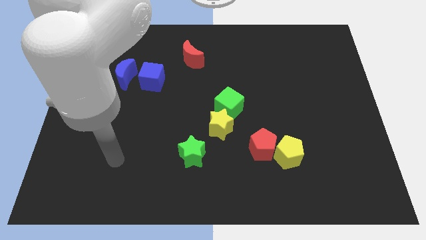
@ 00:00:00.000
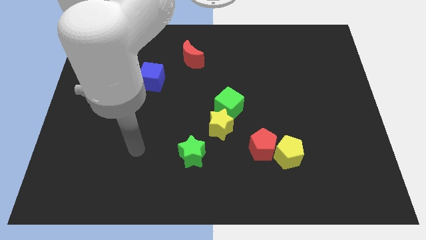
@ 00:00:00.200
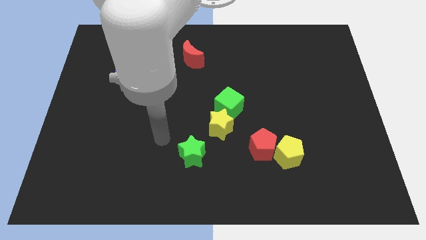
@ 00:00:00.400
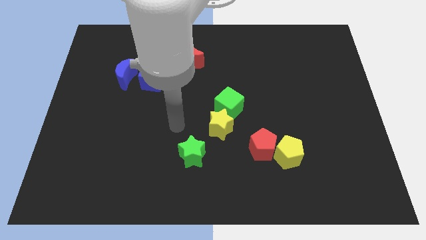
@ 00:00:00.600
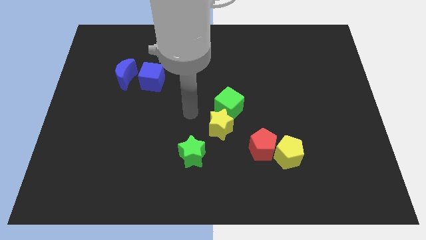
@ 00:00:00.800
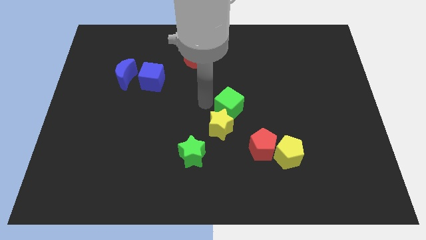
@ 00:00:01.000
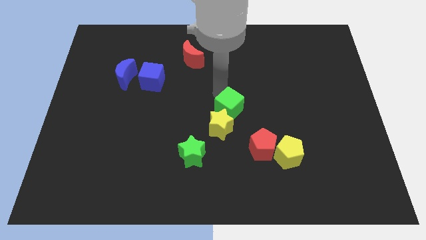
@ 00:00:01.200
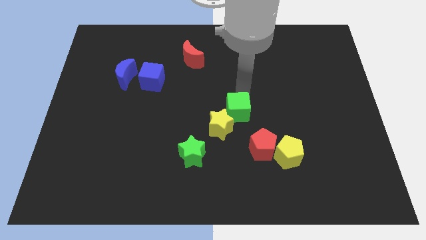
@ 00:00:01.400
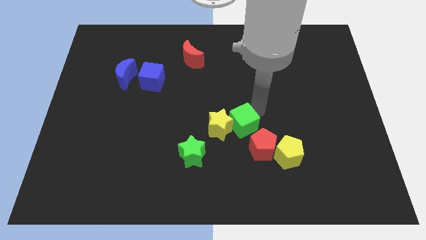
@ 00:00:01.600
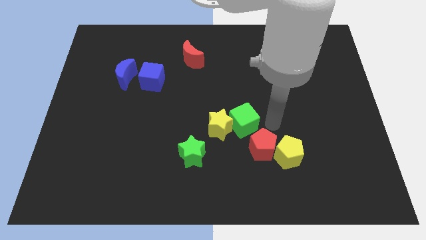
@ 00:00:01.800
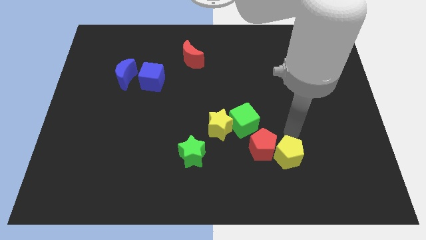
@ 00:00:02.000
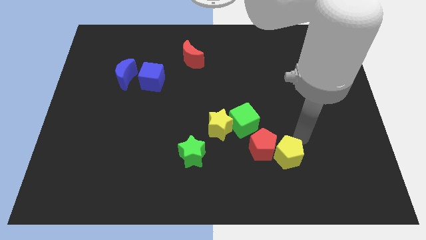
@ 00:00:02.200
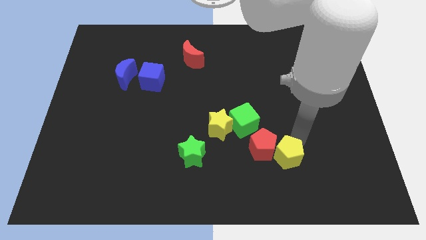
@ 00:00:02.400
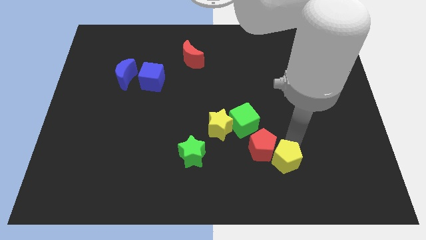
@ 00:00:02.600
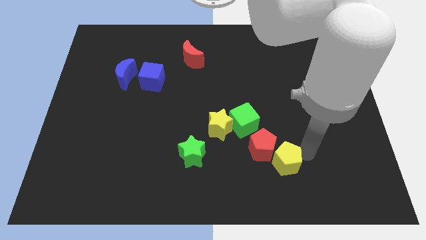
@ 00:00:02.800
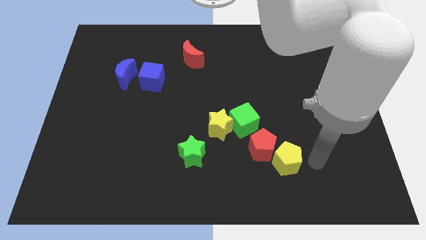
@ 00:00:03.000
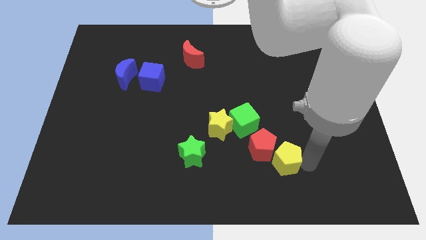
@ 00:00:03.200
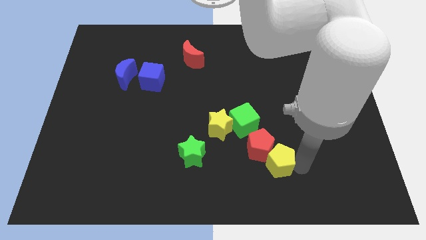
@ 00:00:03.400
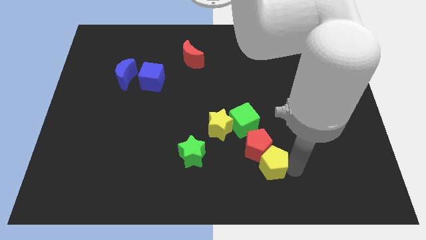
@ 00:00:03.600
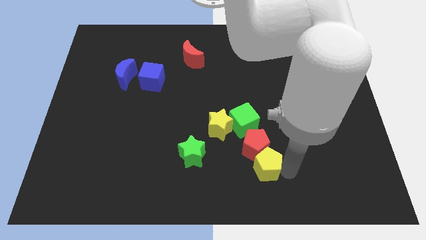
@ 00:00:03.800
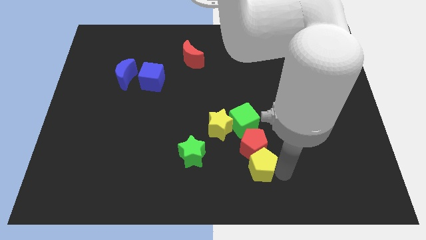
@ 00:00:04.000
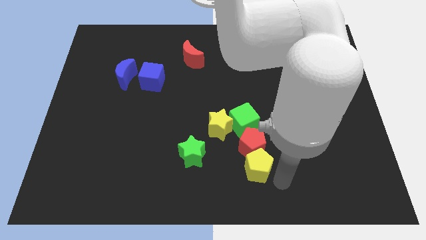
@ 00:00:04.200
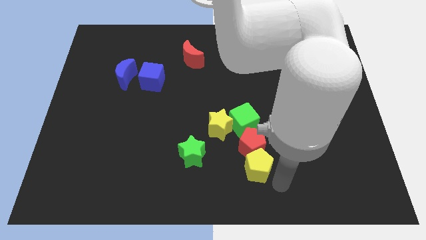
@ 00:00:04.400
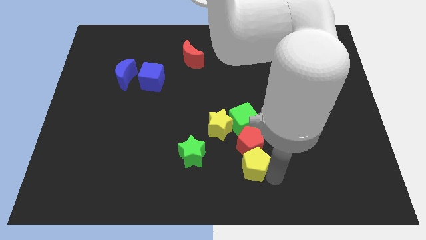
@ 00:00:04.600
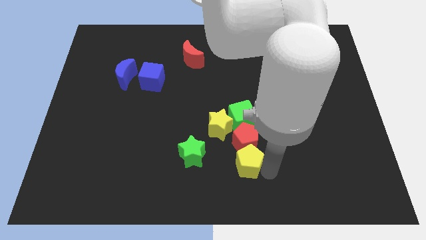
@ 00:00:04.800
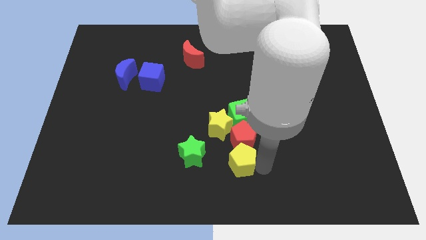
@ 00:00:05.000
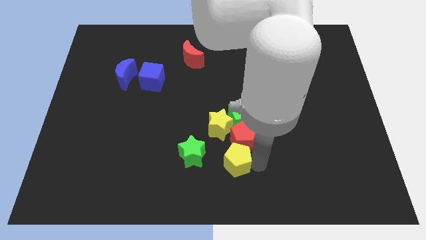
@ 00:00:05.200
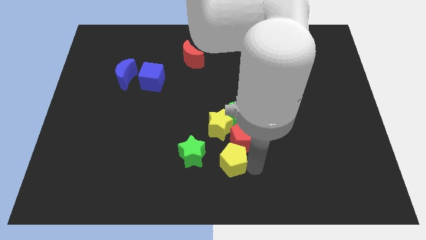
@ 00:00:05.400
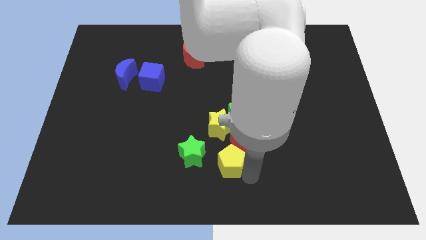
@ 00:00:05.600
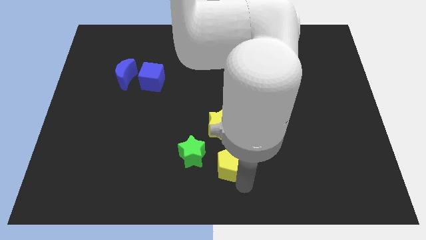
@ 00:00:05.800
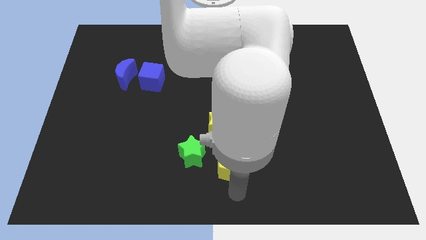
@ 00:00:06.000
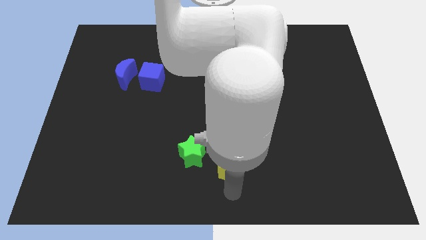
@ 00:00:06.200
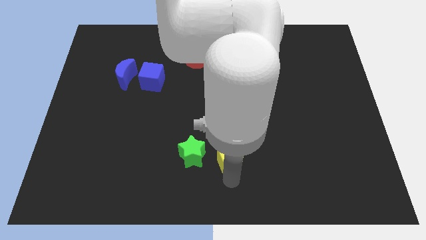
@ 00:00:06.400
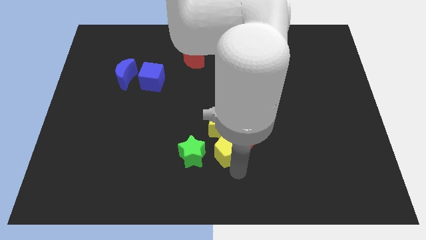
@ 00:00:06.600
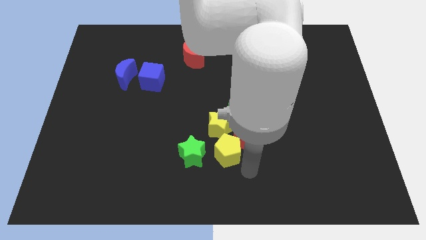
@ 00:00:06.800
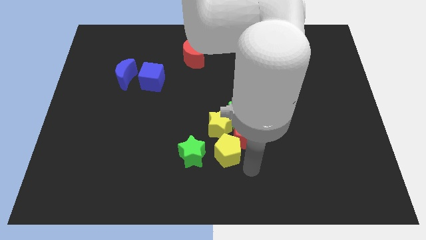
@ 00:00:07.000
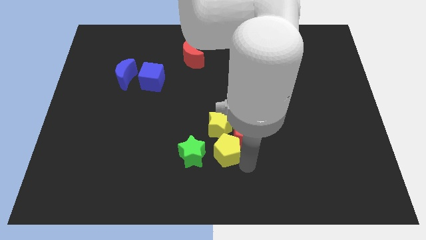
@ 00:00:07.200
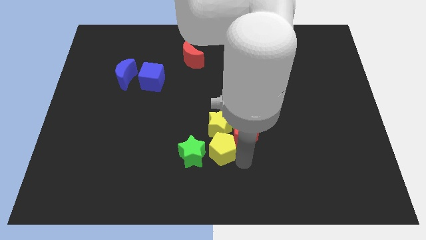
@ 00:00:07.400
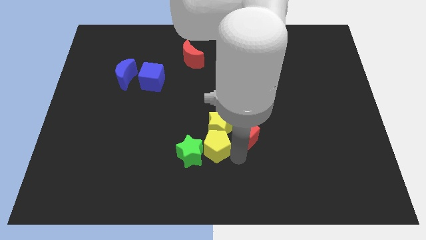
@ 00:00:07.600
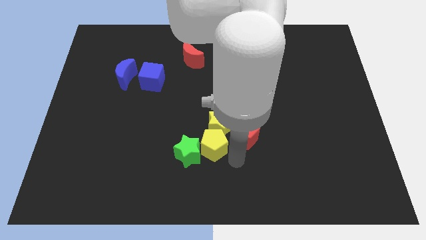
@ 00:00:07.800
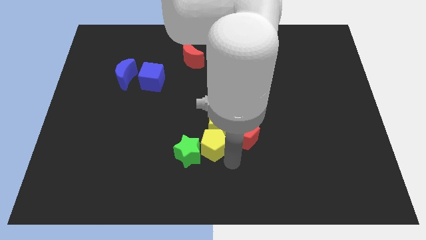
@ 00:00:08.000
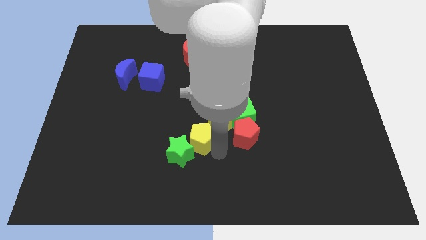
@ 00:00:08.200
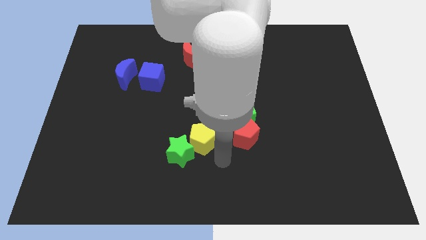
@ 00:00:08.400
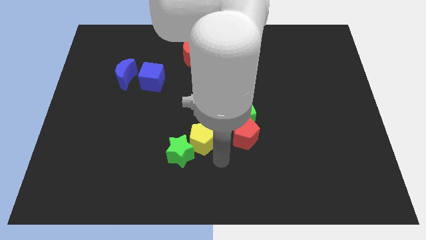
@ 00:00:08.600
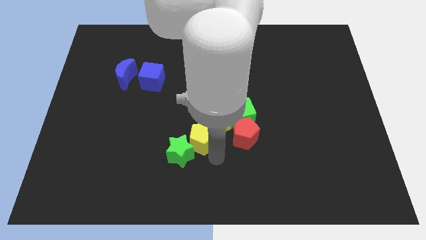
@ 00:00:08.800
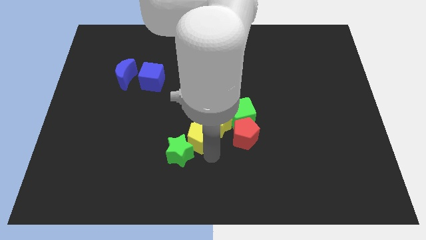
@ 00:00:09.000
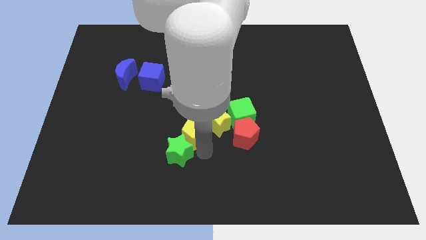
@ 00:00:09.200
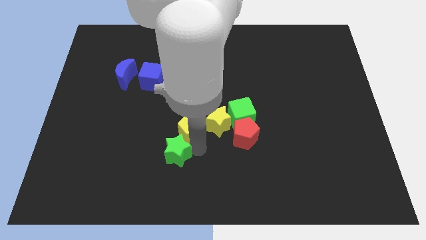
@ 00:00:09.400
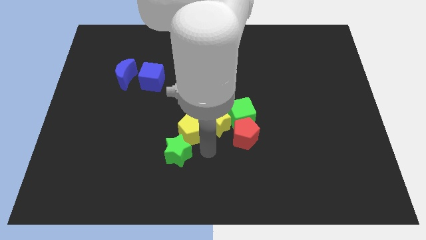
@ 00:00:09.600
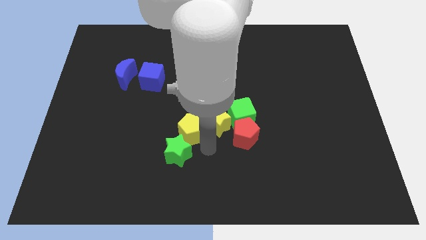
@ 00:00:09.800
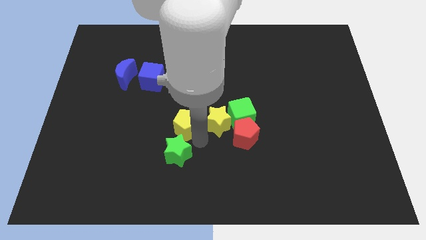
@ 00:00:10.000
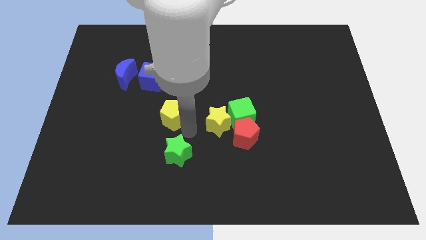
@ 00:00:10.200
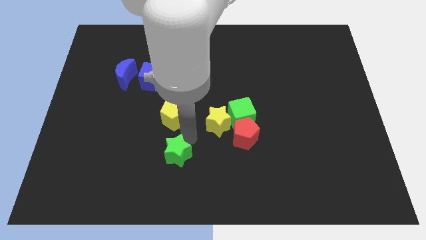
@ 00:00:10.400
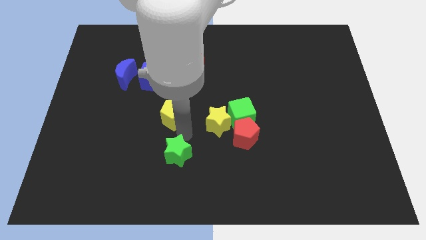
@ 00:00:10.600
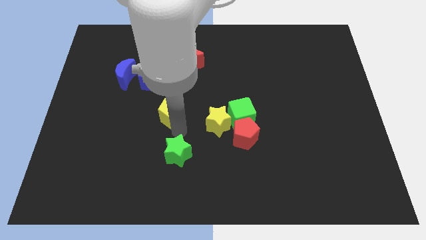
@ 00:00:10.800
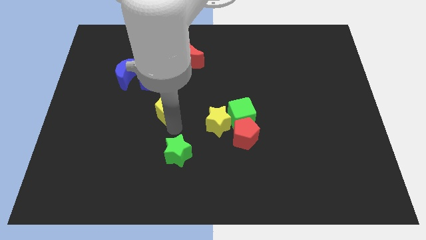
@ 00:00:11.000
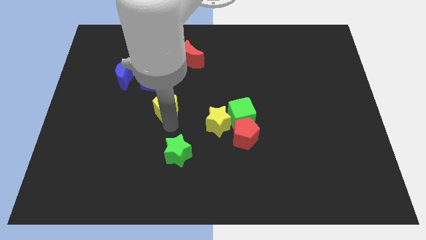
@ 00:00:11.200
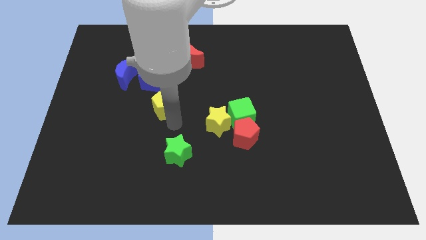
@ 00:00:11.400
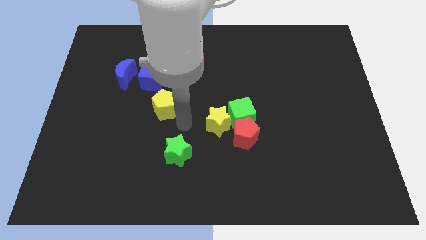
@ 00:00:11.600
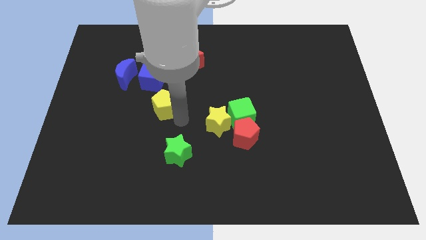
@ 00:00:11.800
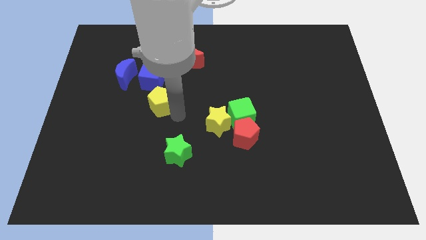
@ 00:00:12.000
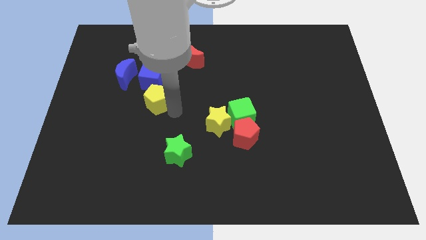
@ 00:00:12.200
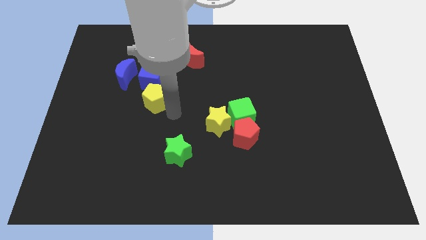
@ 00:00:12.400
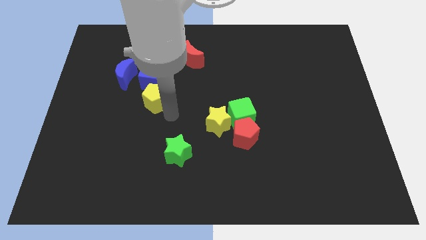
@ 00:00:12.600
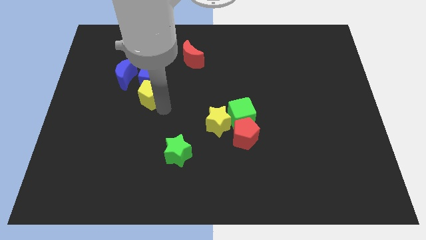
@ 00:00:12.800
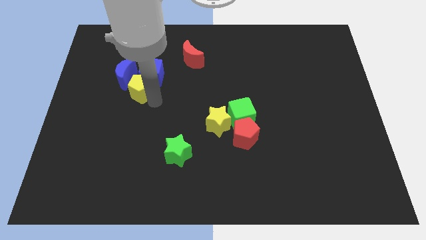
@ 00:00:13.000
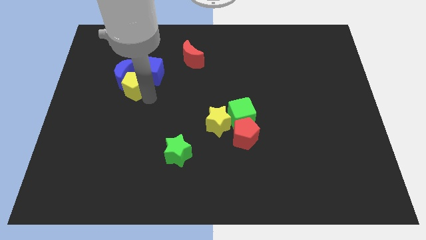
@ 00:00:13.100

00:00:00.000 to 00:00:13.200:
move the yellow pentagon towards the blue moon
